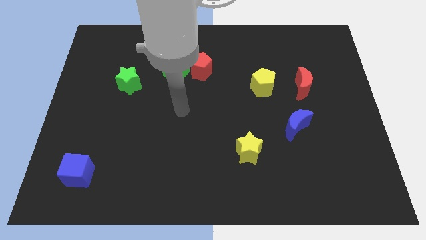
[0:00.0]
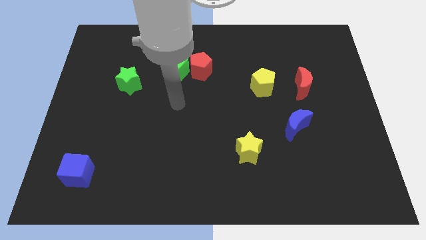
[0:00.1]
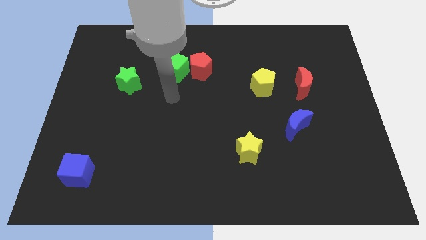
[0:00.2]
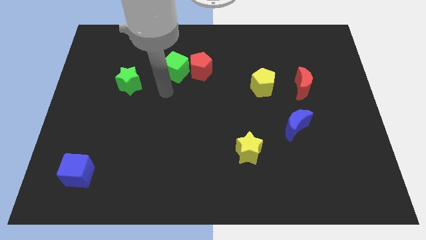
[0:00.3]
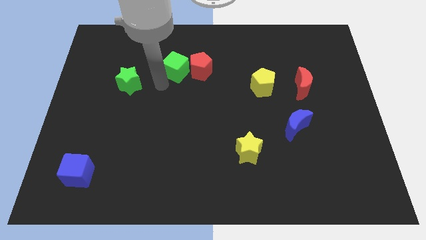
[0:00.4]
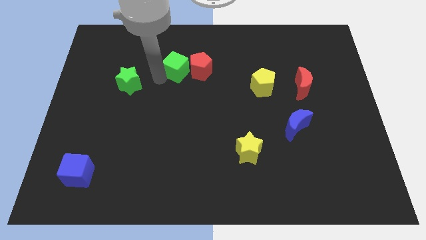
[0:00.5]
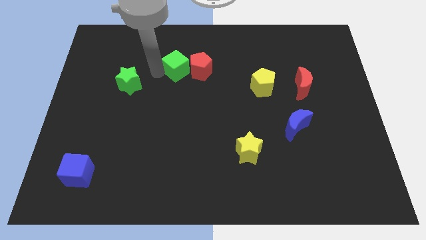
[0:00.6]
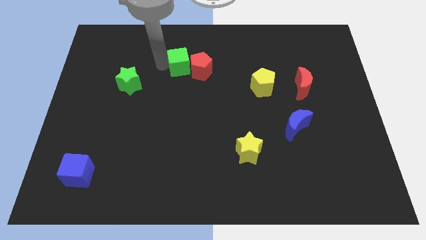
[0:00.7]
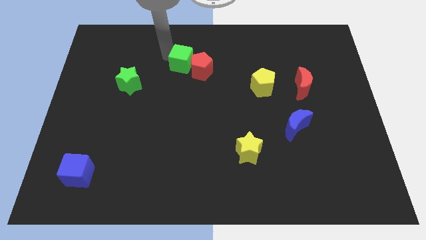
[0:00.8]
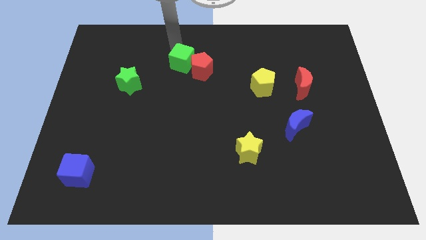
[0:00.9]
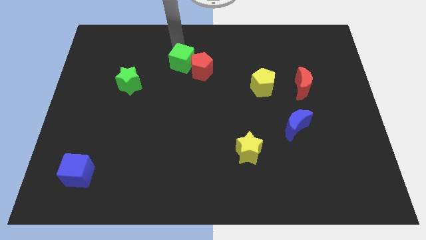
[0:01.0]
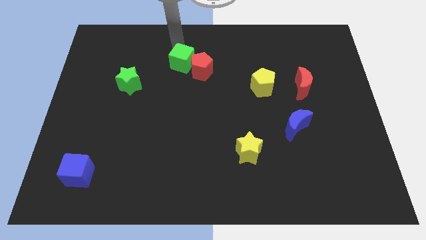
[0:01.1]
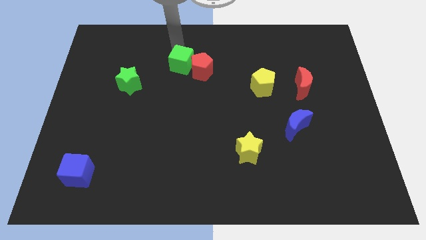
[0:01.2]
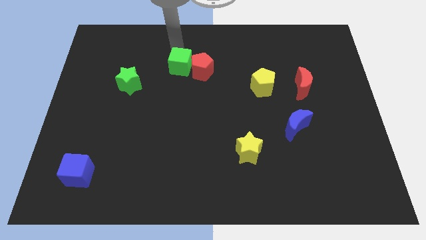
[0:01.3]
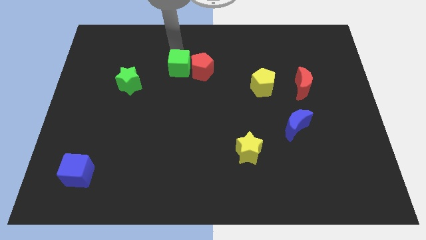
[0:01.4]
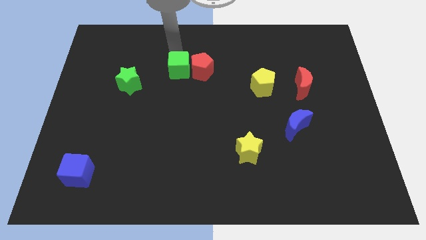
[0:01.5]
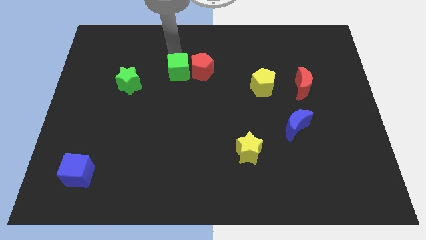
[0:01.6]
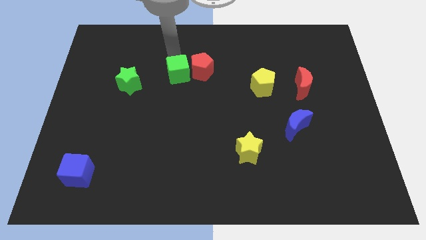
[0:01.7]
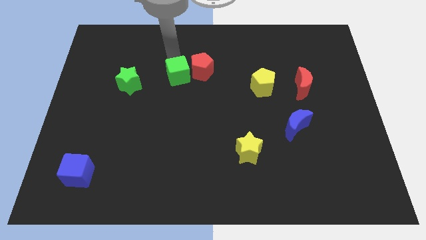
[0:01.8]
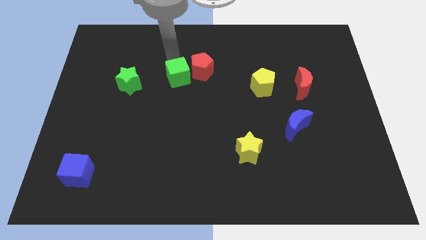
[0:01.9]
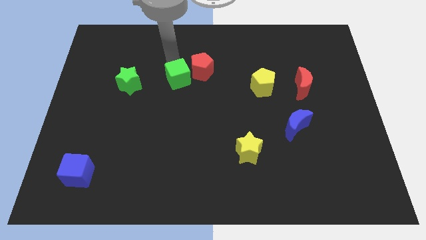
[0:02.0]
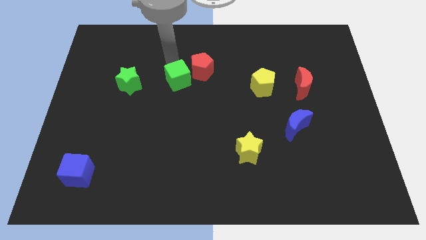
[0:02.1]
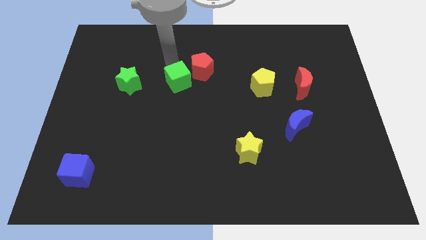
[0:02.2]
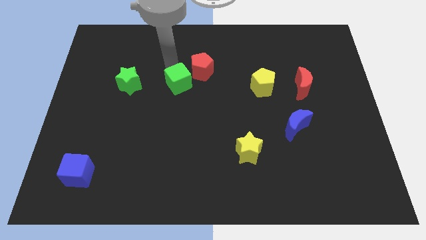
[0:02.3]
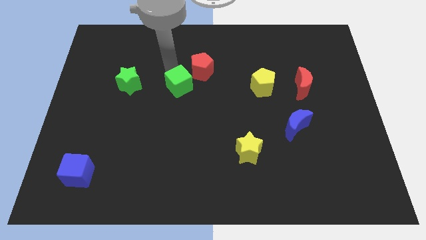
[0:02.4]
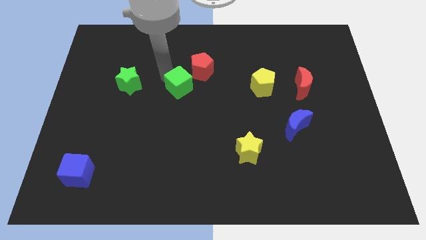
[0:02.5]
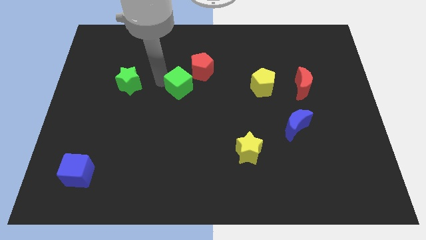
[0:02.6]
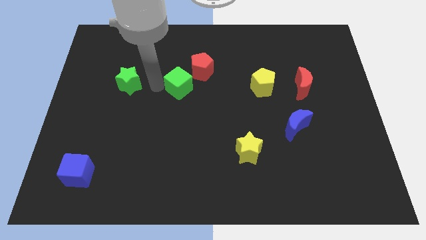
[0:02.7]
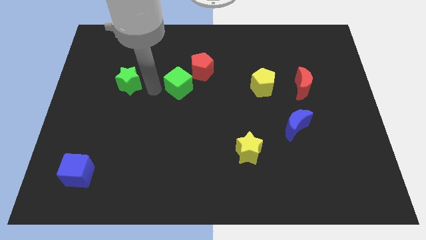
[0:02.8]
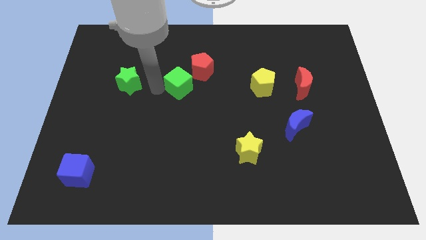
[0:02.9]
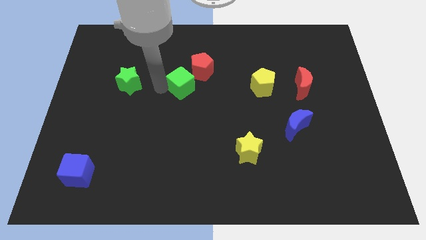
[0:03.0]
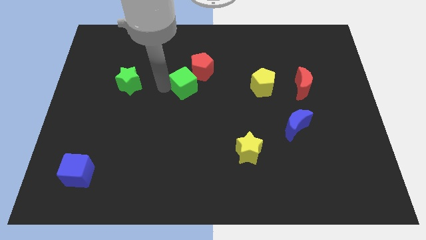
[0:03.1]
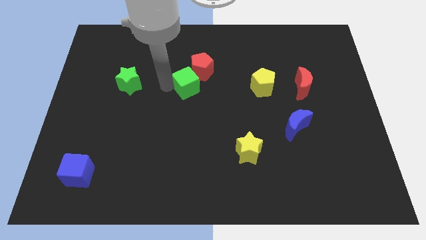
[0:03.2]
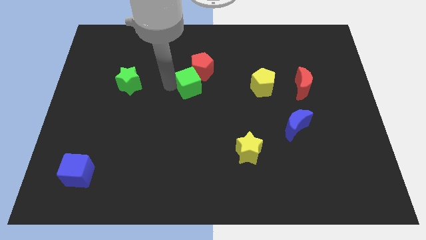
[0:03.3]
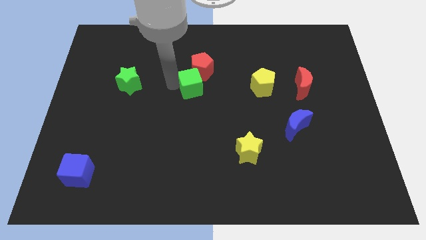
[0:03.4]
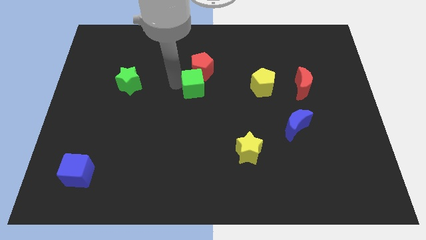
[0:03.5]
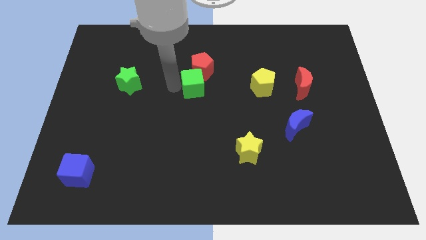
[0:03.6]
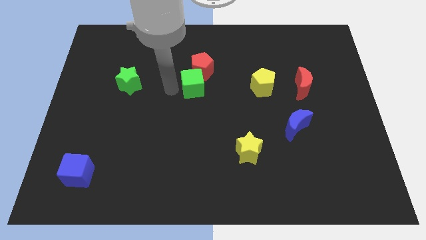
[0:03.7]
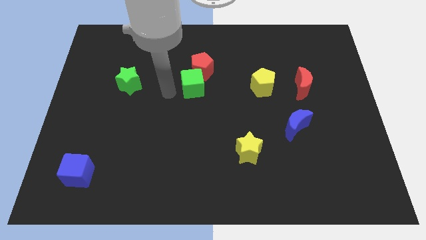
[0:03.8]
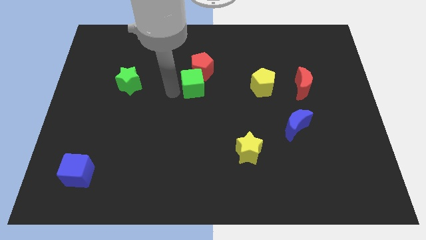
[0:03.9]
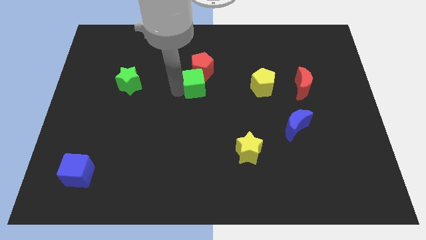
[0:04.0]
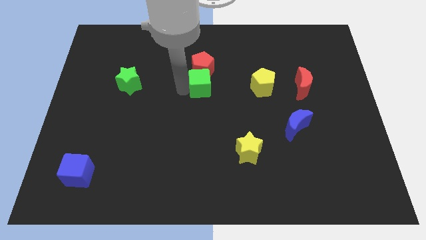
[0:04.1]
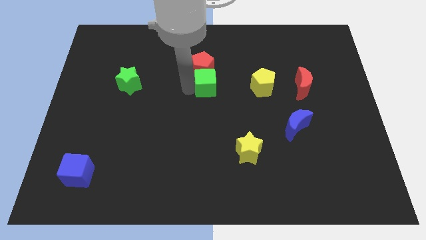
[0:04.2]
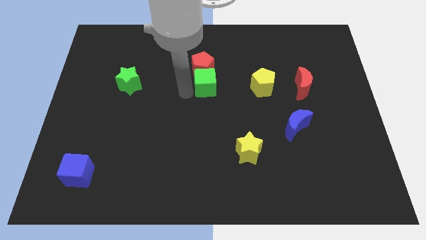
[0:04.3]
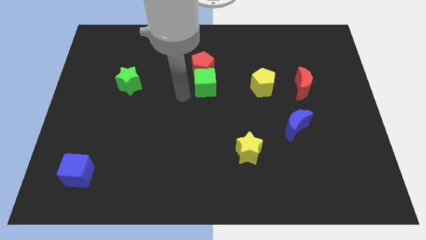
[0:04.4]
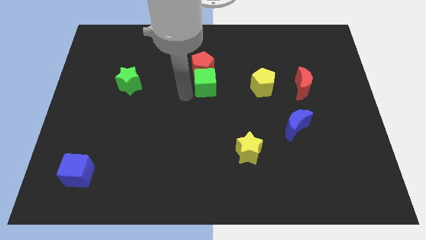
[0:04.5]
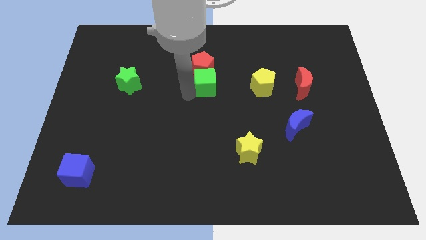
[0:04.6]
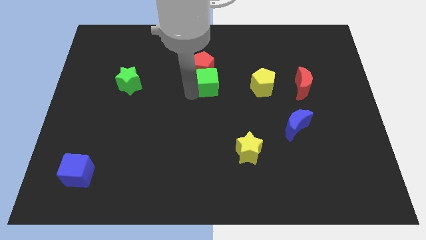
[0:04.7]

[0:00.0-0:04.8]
move the green cube slightly right

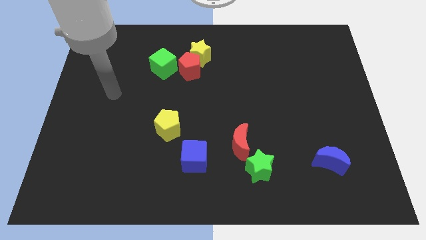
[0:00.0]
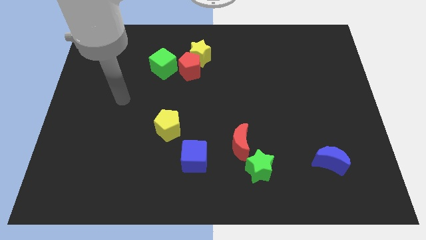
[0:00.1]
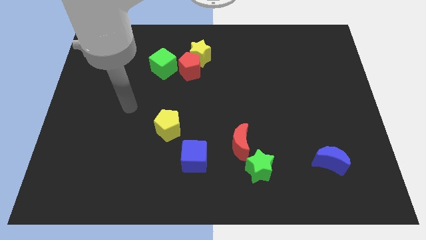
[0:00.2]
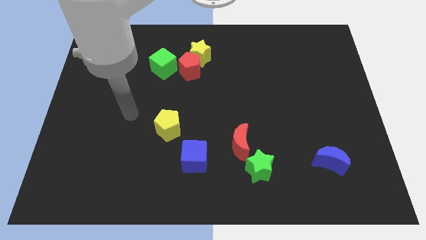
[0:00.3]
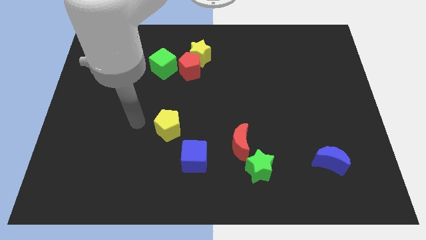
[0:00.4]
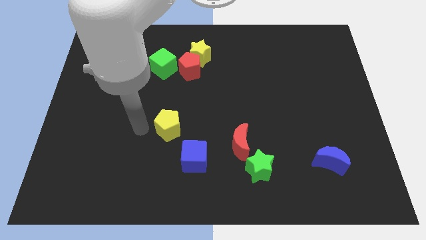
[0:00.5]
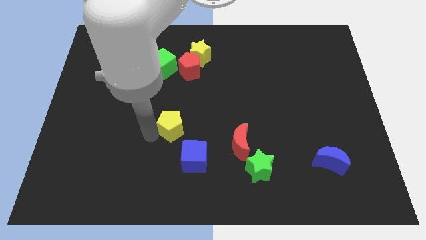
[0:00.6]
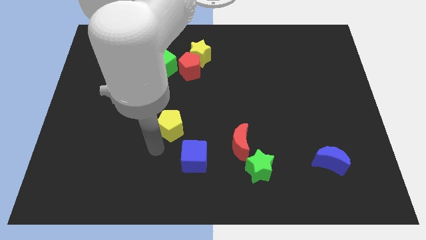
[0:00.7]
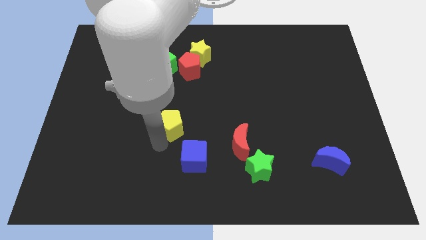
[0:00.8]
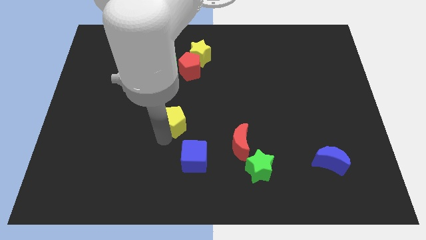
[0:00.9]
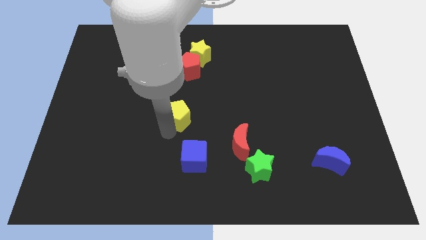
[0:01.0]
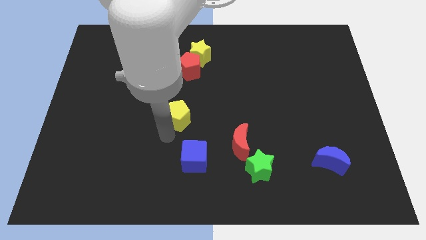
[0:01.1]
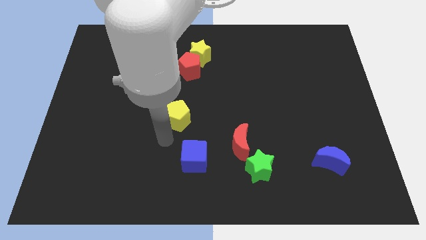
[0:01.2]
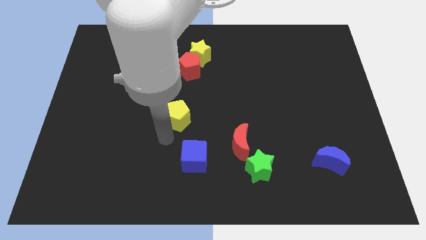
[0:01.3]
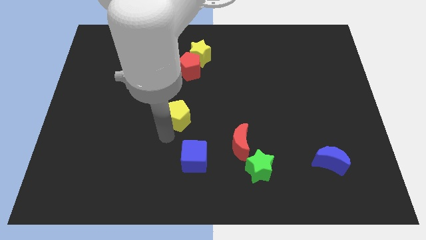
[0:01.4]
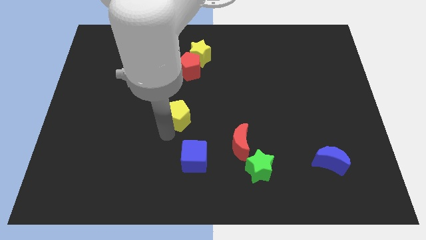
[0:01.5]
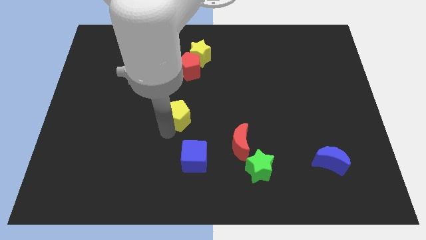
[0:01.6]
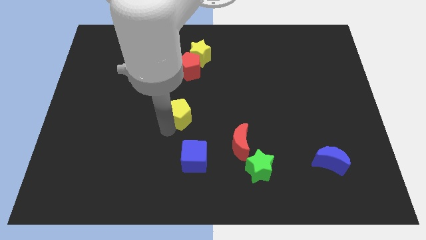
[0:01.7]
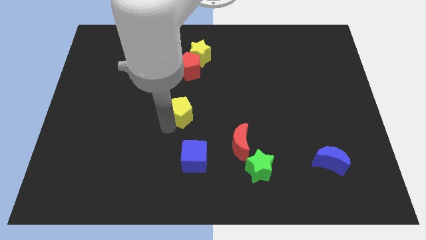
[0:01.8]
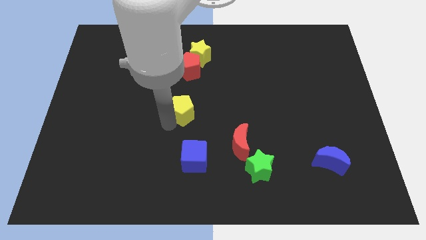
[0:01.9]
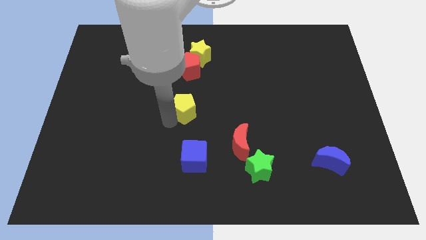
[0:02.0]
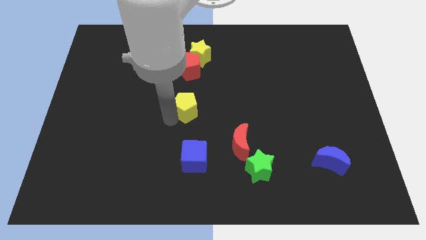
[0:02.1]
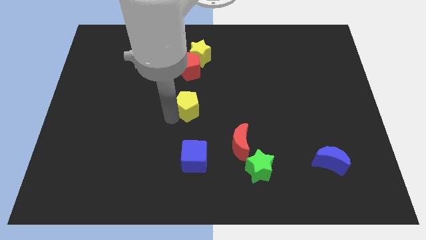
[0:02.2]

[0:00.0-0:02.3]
move the yellow pentagon a bit upwards and to the right

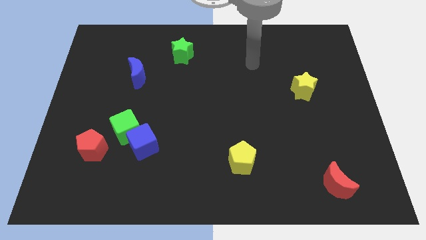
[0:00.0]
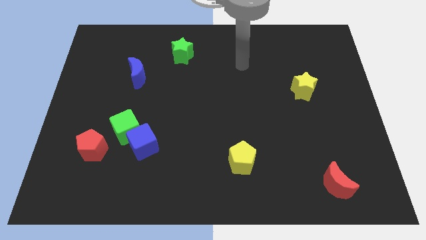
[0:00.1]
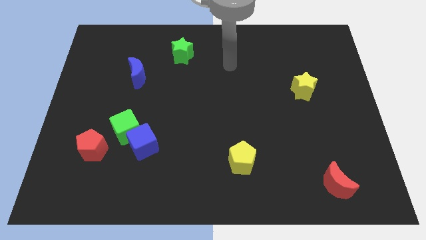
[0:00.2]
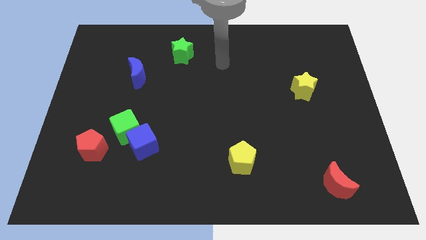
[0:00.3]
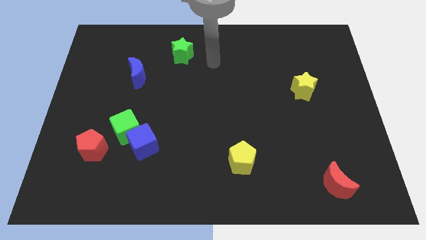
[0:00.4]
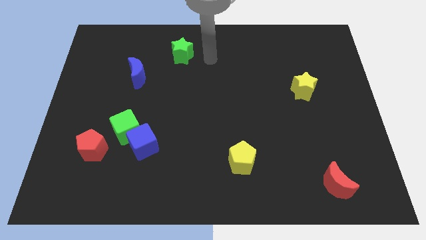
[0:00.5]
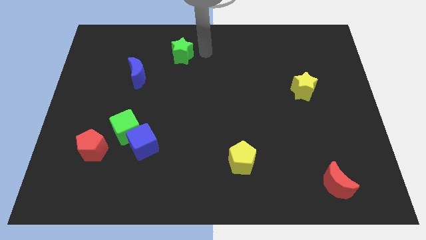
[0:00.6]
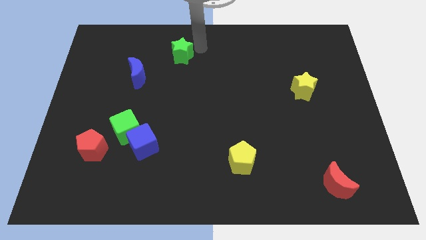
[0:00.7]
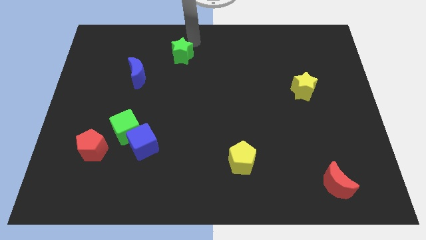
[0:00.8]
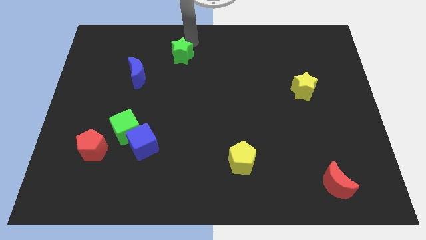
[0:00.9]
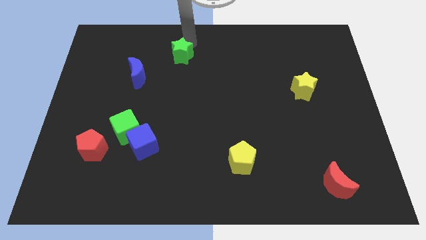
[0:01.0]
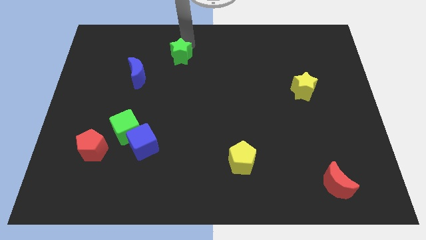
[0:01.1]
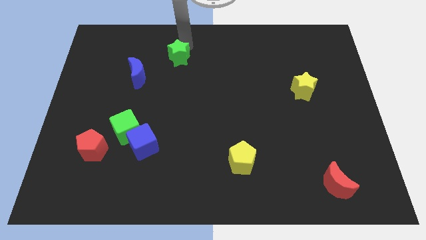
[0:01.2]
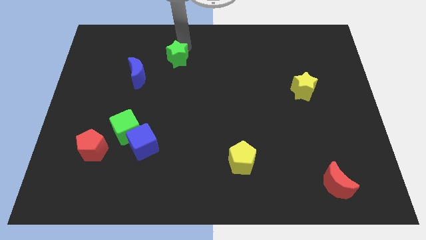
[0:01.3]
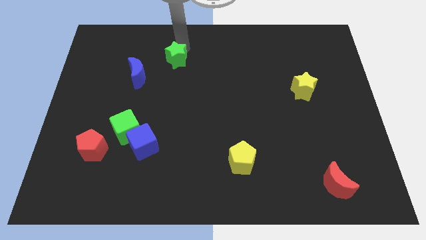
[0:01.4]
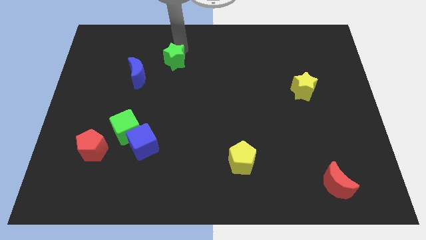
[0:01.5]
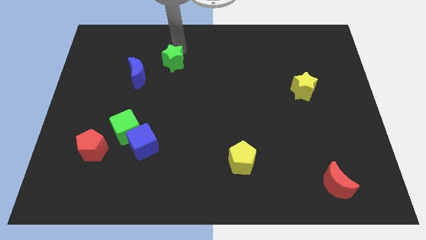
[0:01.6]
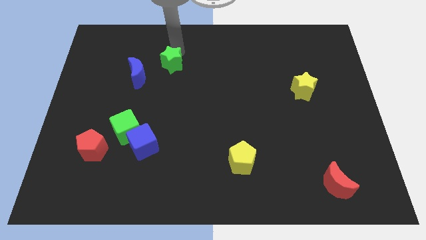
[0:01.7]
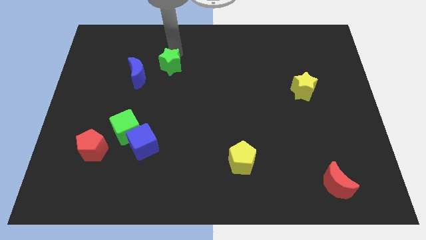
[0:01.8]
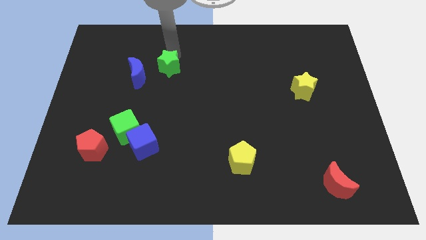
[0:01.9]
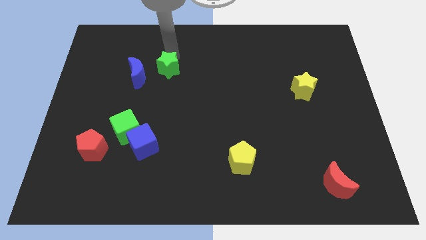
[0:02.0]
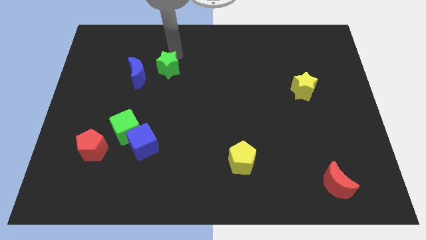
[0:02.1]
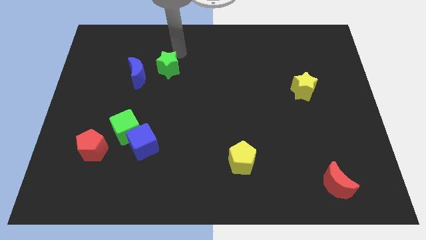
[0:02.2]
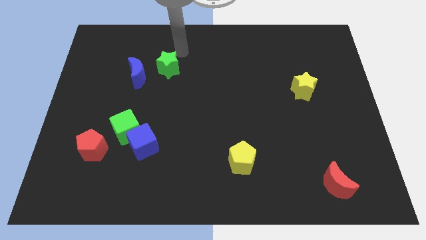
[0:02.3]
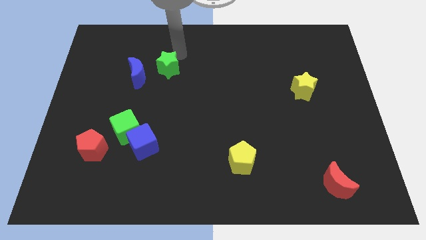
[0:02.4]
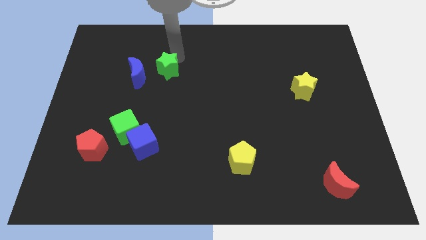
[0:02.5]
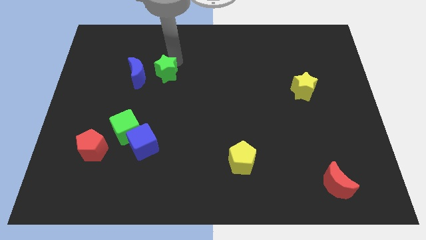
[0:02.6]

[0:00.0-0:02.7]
slide the green star a little bit down and then left
